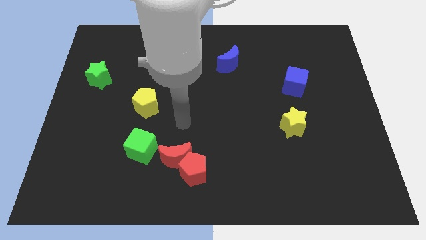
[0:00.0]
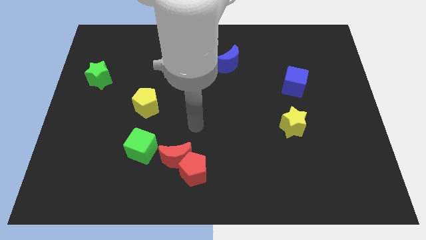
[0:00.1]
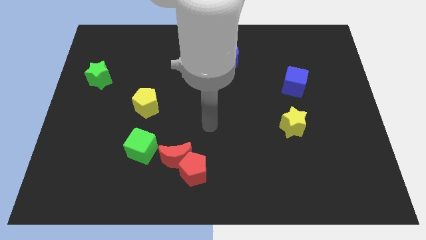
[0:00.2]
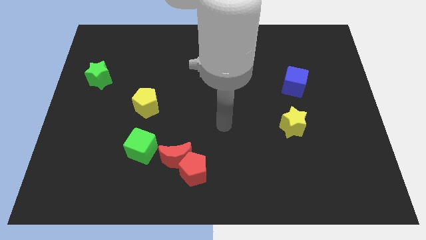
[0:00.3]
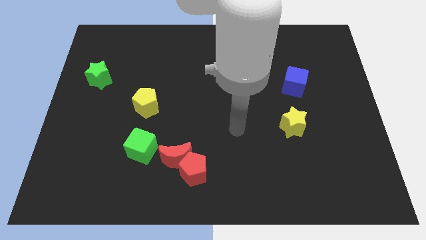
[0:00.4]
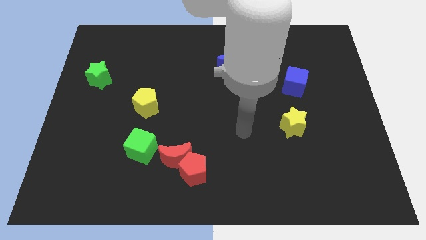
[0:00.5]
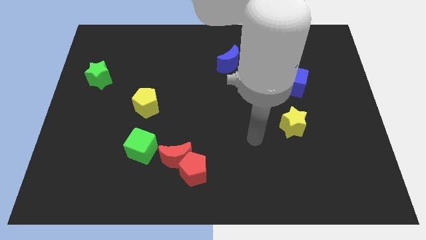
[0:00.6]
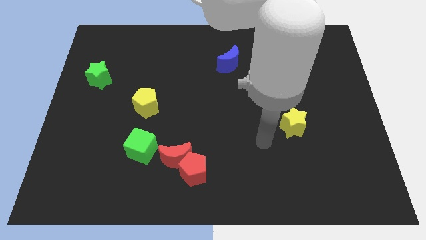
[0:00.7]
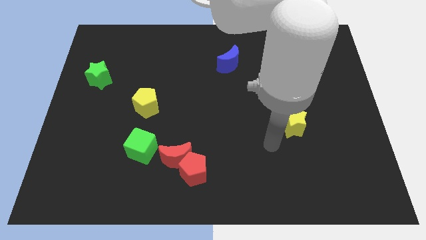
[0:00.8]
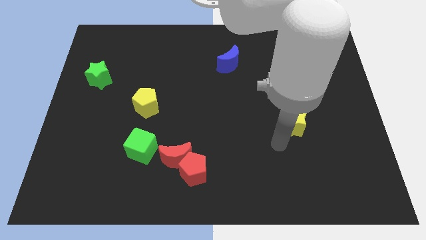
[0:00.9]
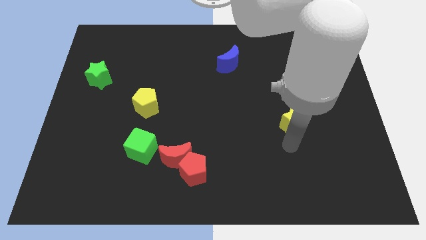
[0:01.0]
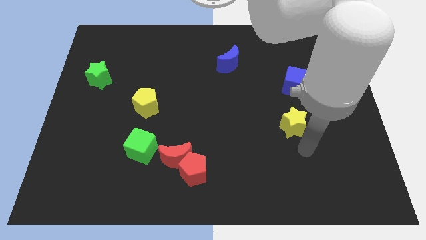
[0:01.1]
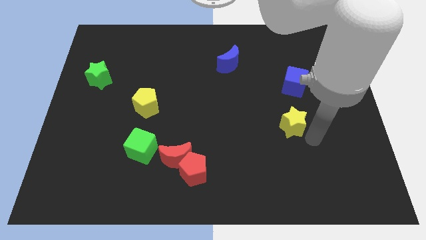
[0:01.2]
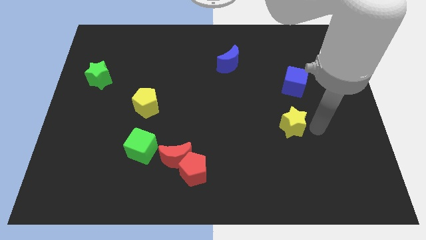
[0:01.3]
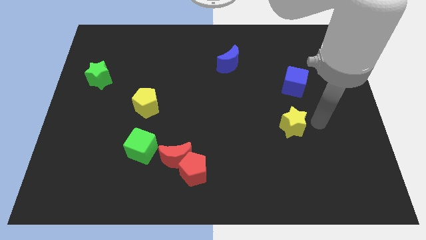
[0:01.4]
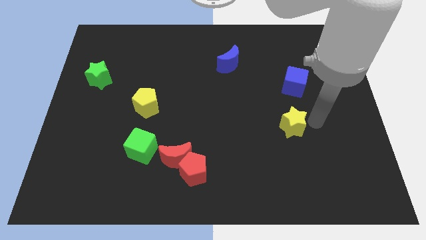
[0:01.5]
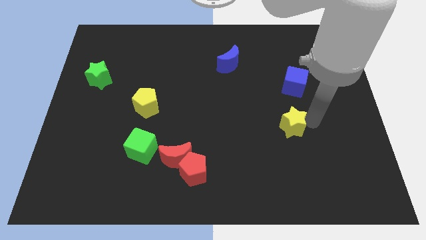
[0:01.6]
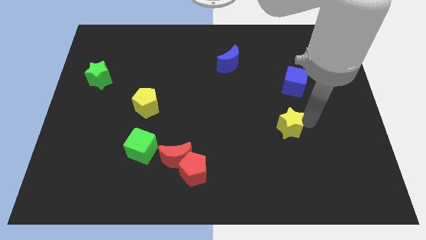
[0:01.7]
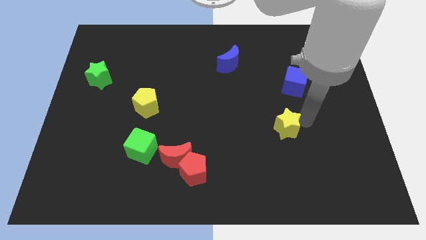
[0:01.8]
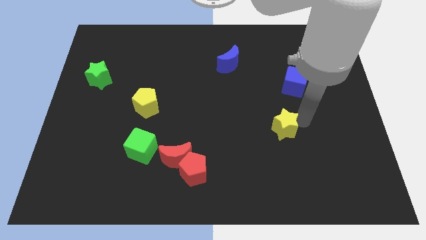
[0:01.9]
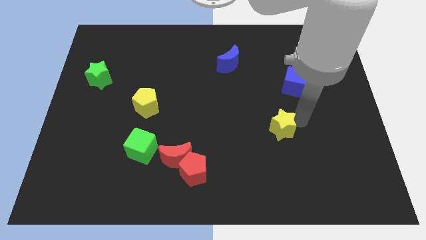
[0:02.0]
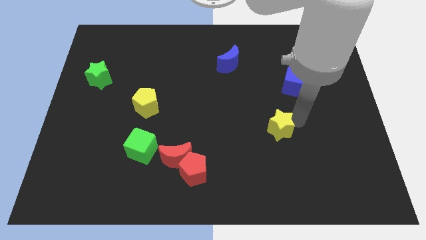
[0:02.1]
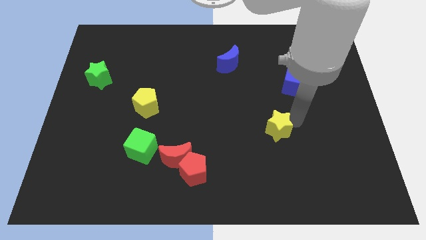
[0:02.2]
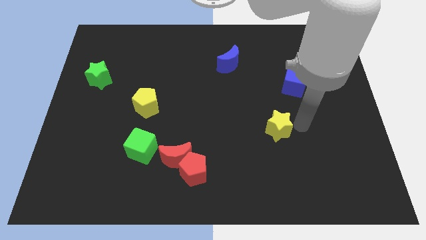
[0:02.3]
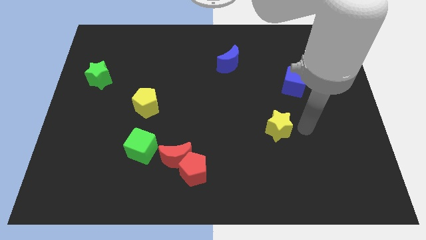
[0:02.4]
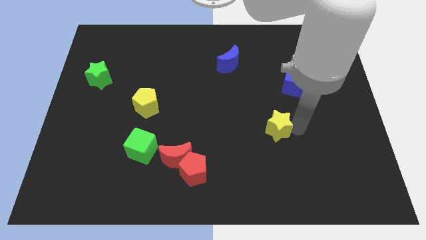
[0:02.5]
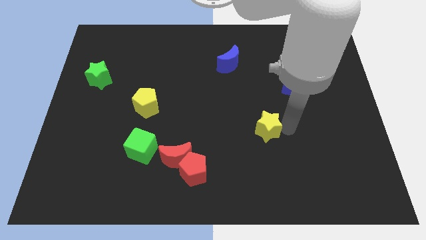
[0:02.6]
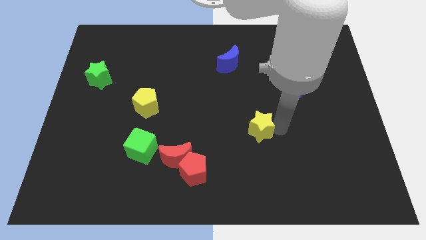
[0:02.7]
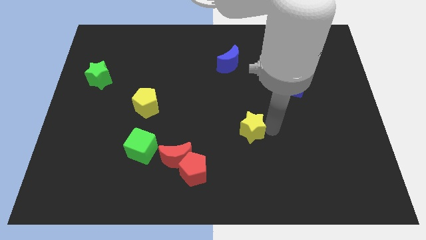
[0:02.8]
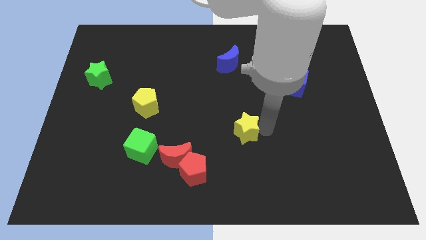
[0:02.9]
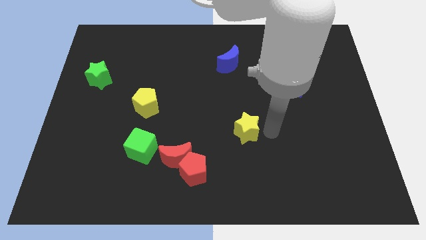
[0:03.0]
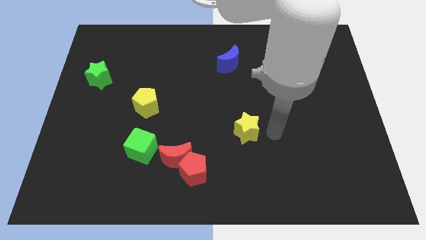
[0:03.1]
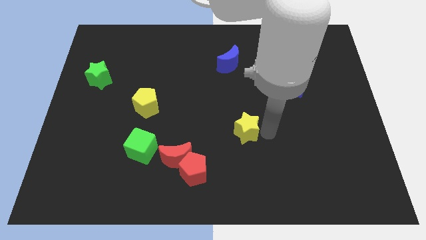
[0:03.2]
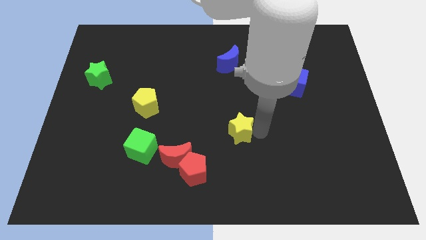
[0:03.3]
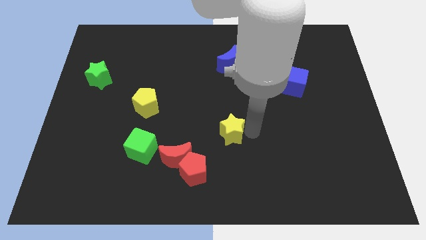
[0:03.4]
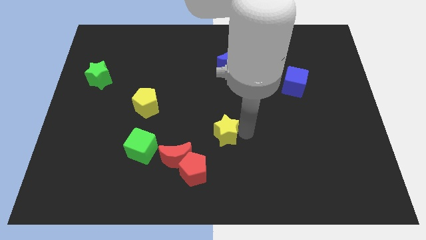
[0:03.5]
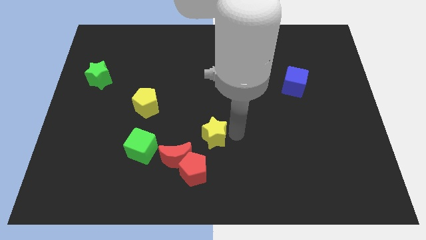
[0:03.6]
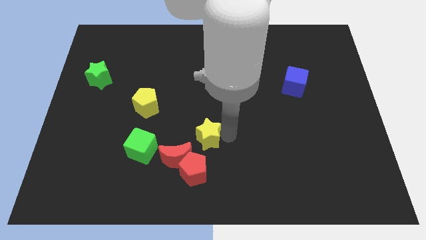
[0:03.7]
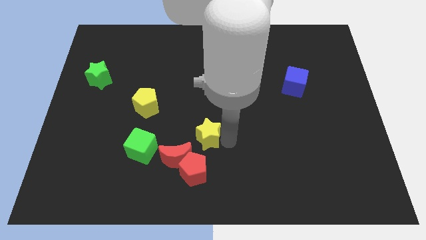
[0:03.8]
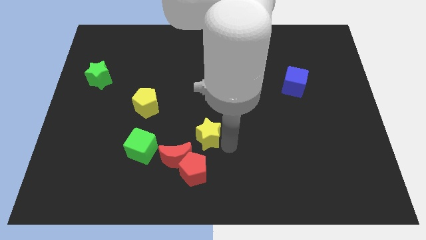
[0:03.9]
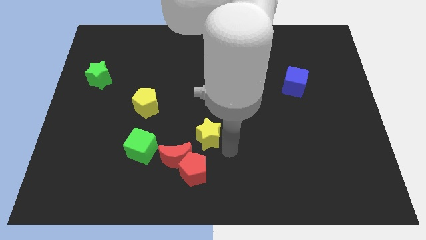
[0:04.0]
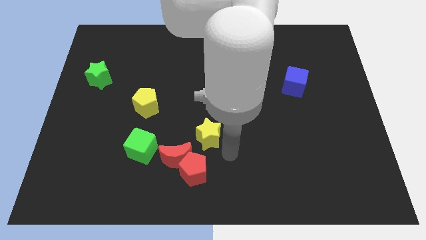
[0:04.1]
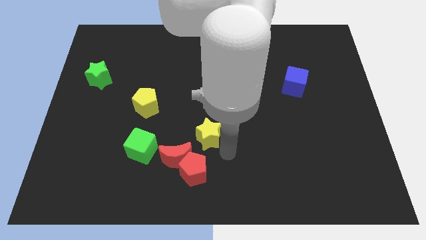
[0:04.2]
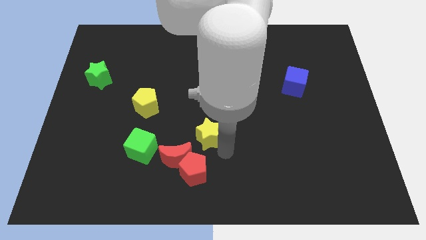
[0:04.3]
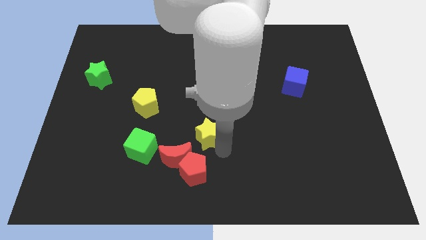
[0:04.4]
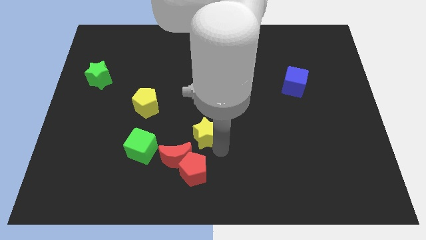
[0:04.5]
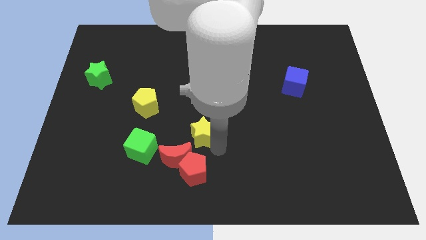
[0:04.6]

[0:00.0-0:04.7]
slide the yellow star to the left

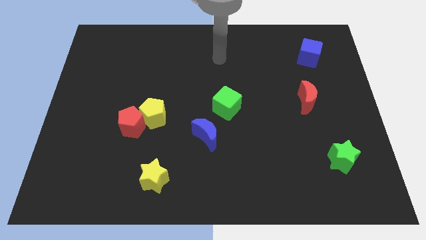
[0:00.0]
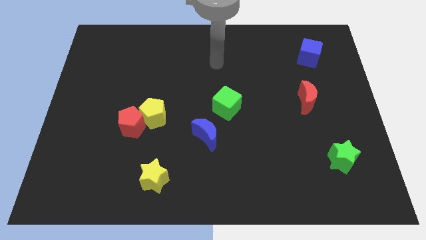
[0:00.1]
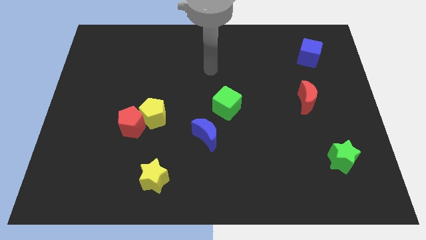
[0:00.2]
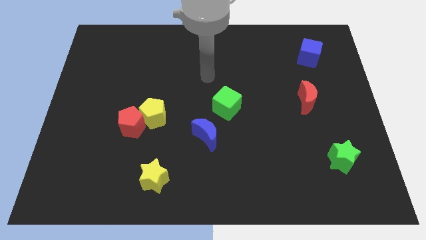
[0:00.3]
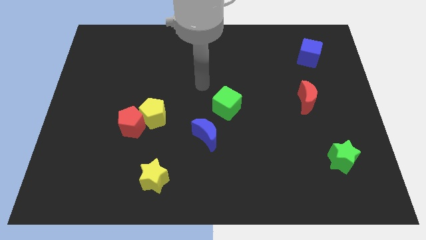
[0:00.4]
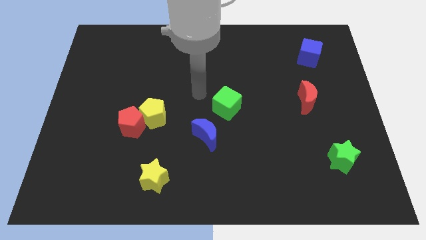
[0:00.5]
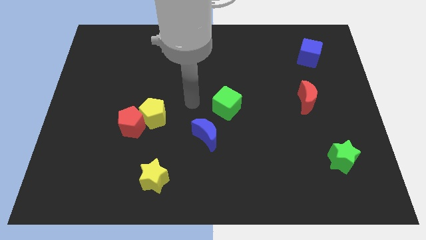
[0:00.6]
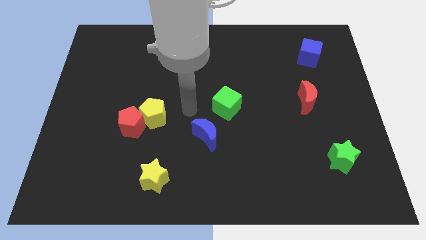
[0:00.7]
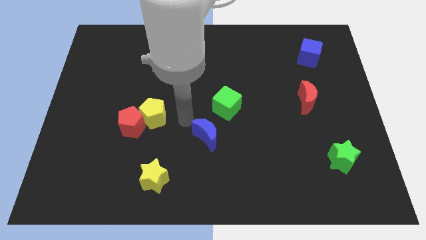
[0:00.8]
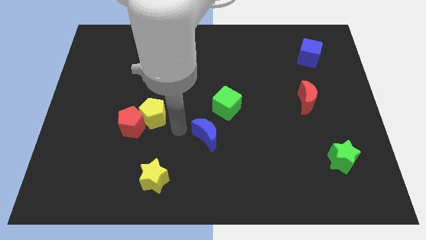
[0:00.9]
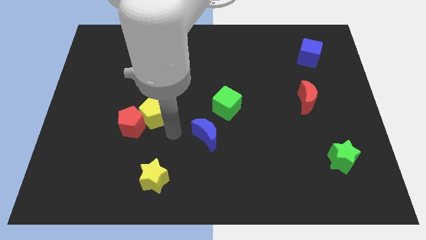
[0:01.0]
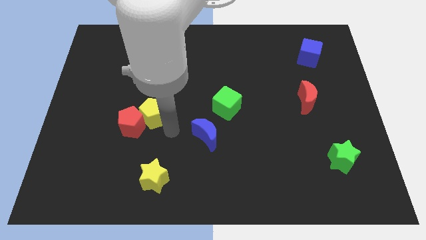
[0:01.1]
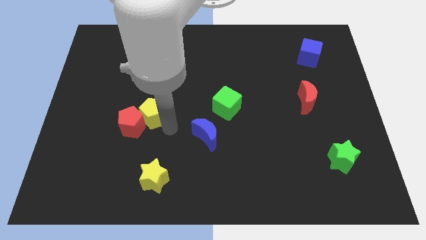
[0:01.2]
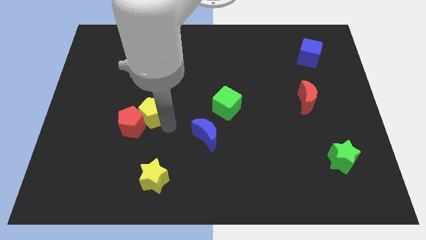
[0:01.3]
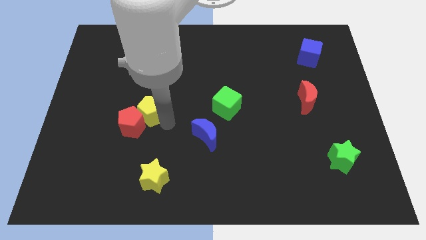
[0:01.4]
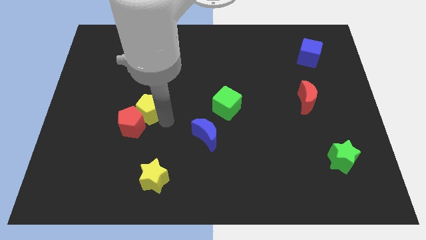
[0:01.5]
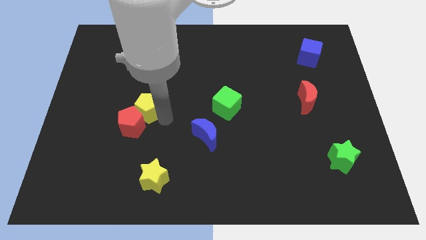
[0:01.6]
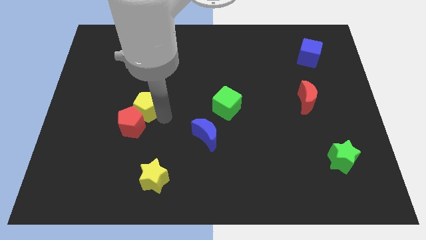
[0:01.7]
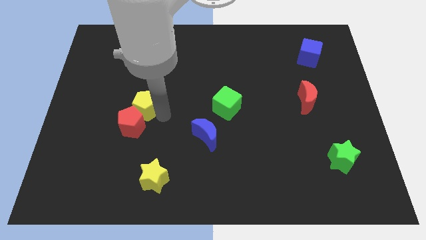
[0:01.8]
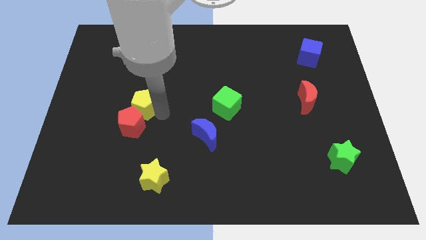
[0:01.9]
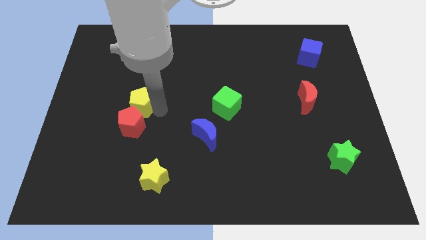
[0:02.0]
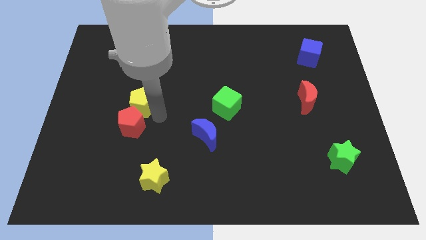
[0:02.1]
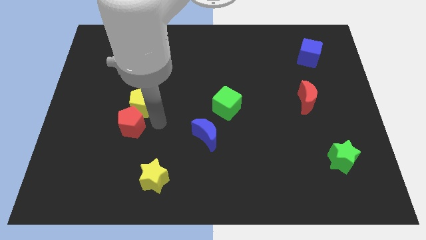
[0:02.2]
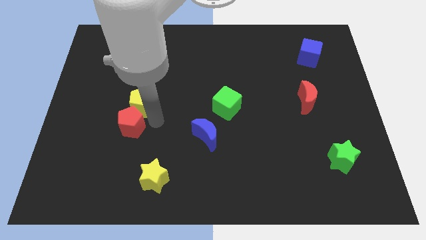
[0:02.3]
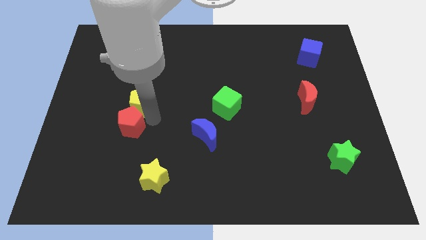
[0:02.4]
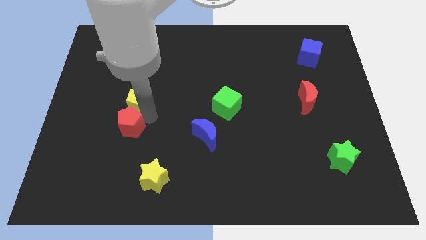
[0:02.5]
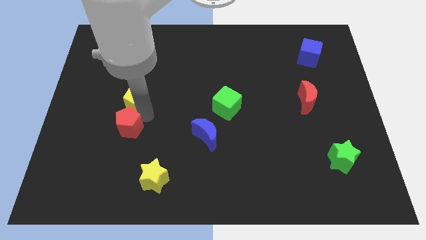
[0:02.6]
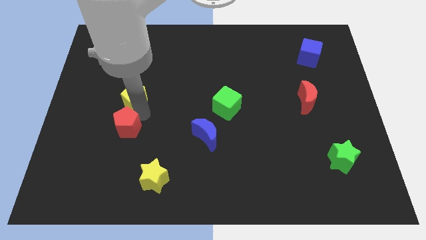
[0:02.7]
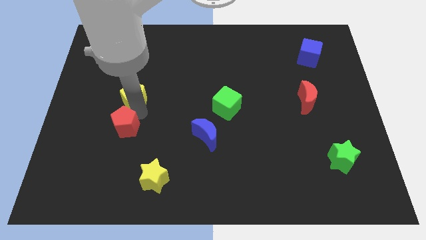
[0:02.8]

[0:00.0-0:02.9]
move the yellow pentagon a little bit upwards and then to the left

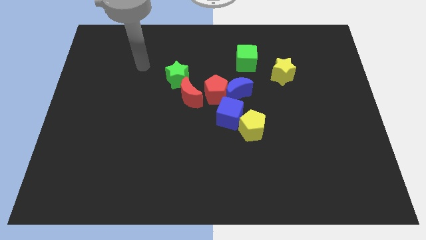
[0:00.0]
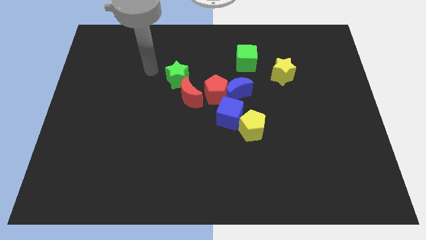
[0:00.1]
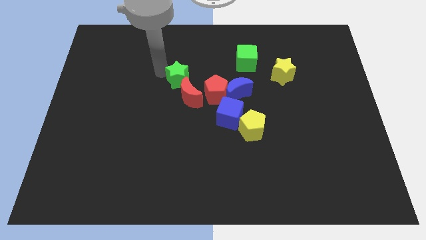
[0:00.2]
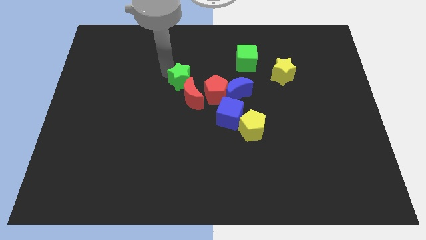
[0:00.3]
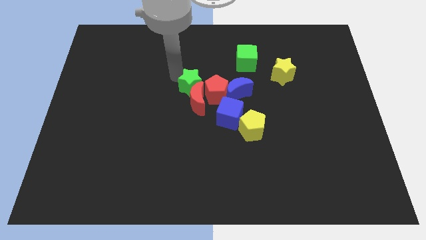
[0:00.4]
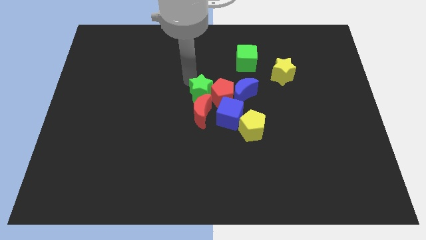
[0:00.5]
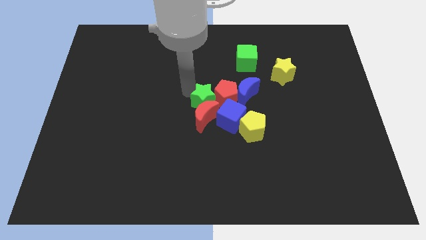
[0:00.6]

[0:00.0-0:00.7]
push the red moon diagonally down and right slightly
